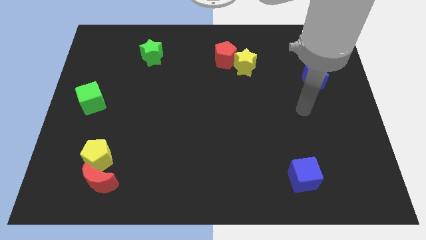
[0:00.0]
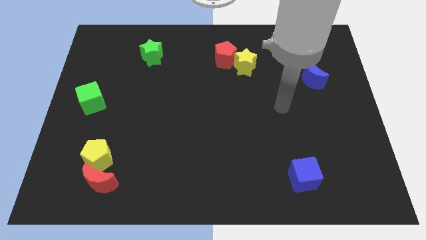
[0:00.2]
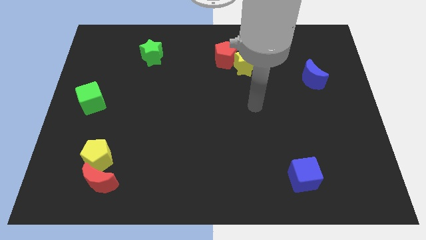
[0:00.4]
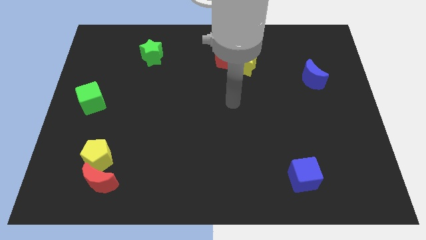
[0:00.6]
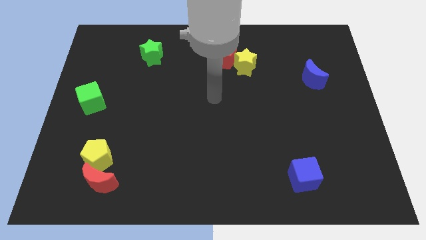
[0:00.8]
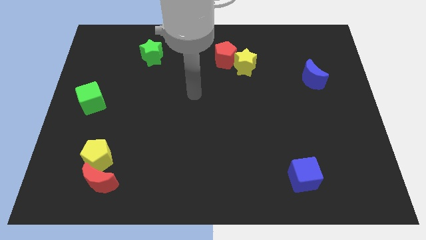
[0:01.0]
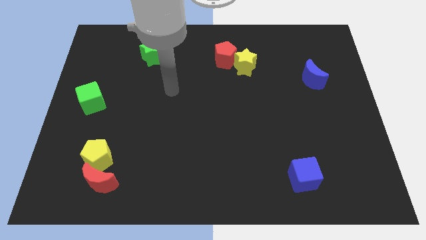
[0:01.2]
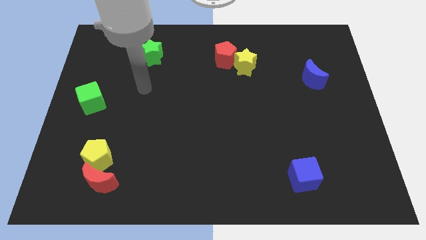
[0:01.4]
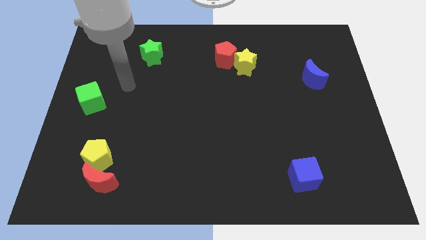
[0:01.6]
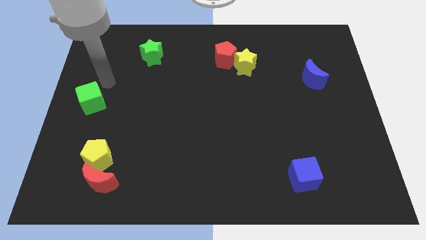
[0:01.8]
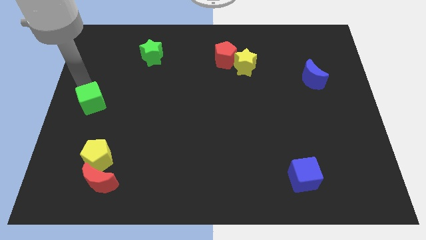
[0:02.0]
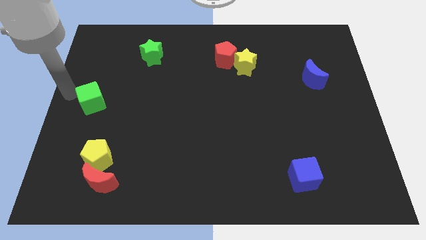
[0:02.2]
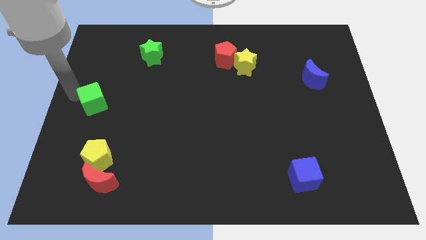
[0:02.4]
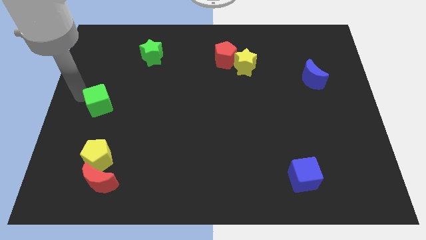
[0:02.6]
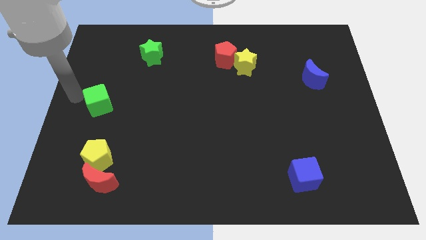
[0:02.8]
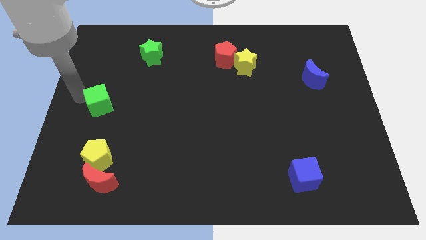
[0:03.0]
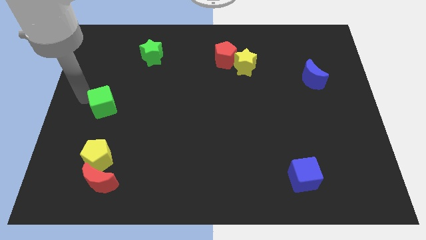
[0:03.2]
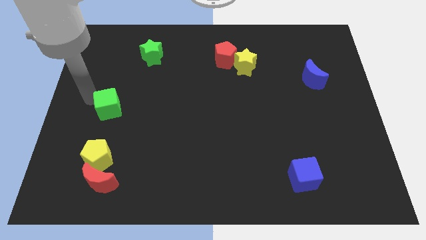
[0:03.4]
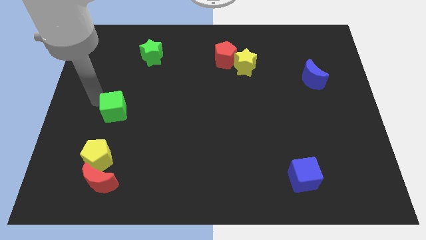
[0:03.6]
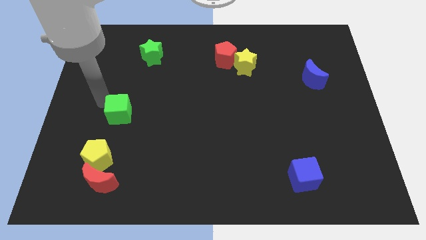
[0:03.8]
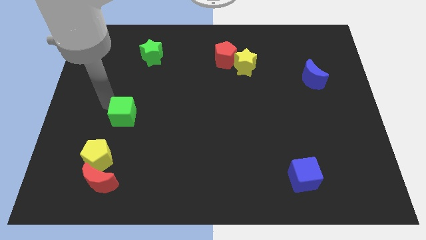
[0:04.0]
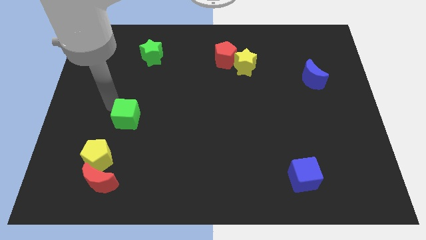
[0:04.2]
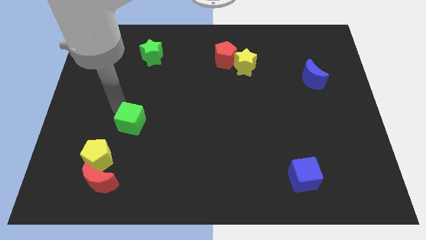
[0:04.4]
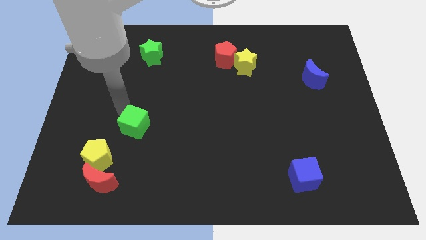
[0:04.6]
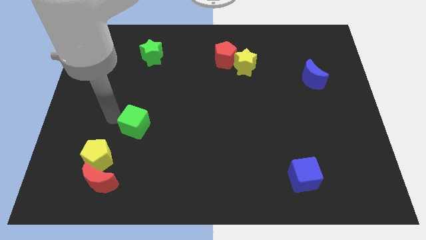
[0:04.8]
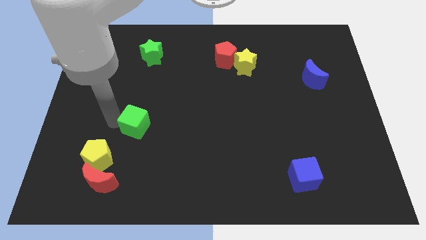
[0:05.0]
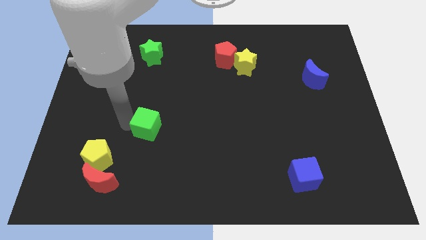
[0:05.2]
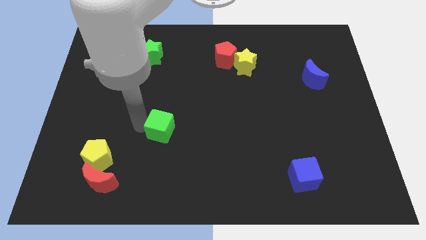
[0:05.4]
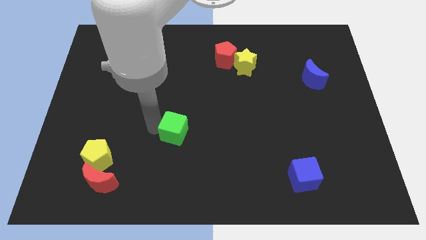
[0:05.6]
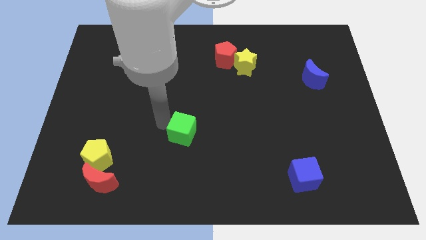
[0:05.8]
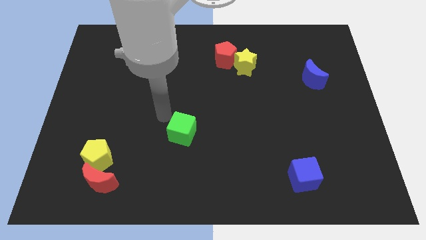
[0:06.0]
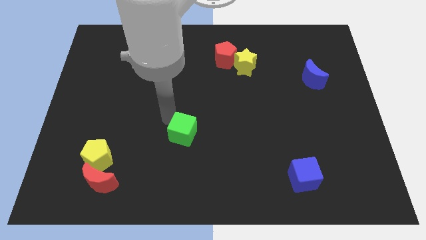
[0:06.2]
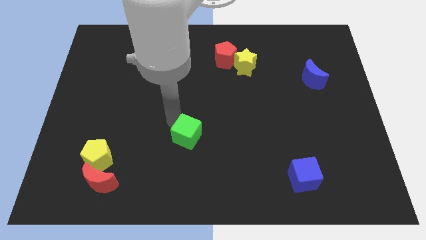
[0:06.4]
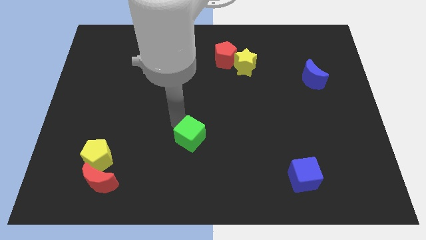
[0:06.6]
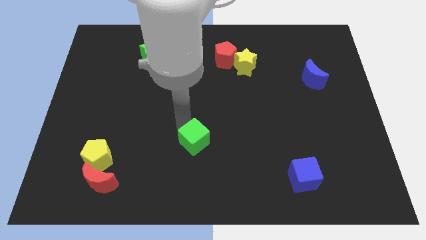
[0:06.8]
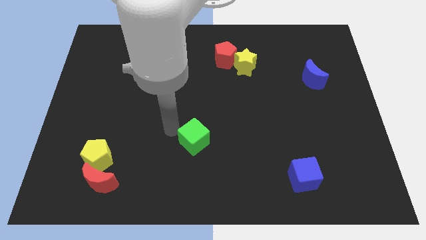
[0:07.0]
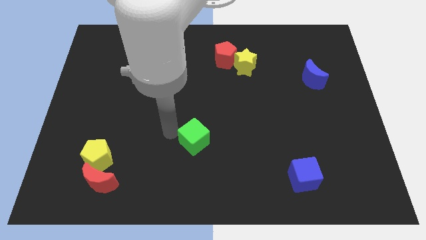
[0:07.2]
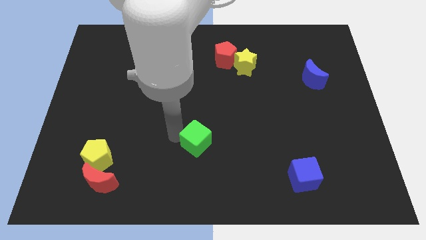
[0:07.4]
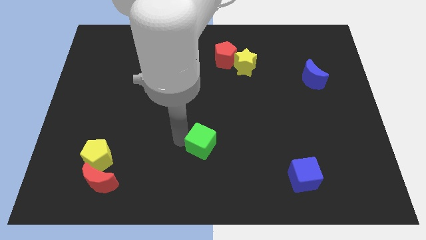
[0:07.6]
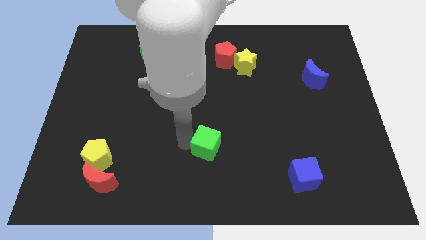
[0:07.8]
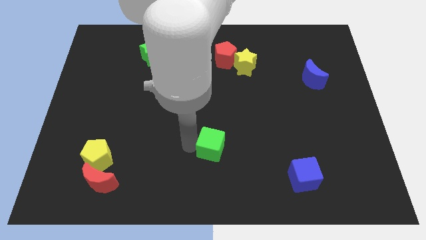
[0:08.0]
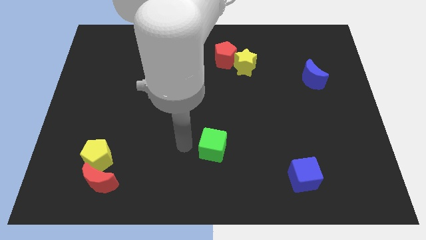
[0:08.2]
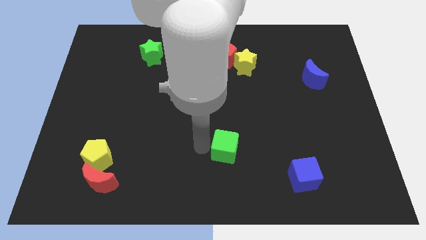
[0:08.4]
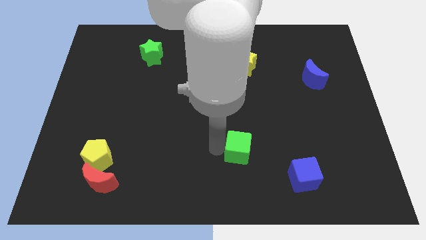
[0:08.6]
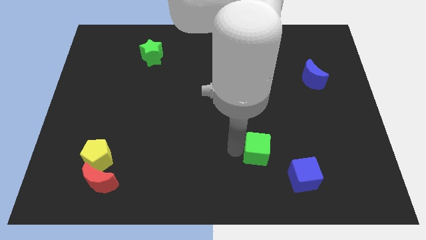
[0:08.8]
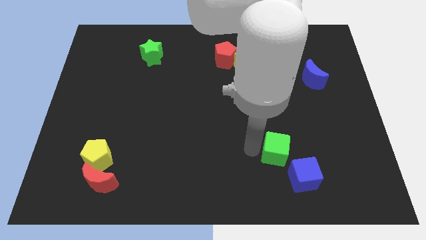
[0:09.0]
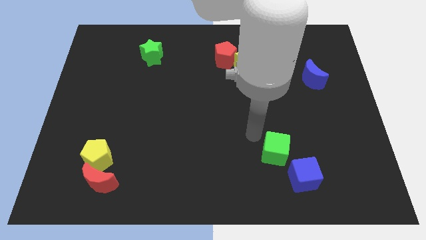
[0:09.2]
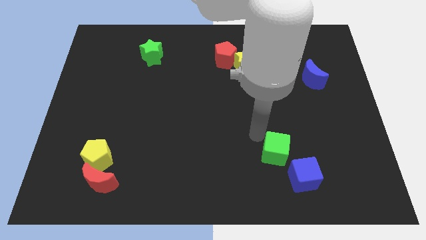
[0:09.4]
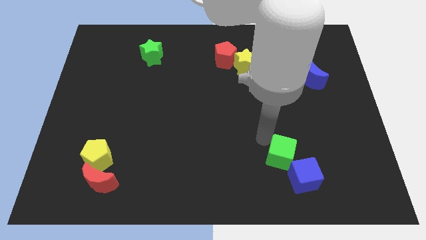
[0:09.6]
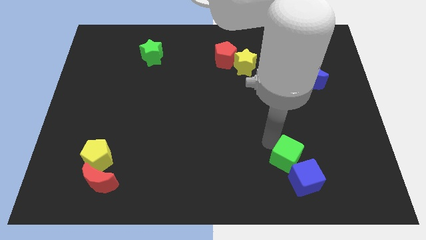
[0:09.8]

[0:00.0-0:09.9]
push the green cube close to the blue cube

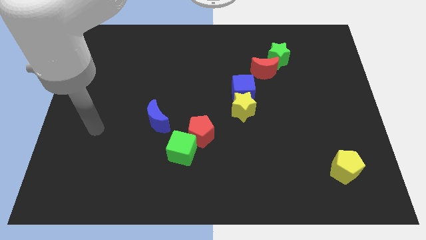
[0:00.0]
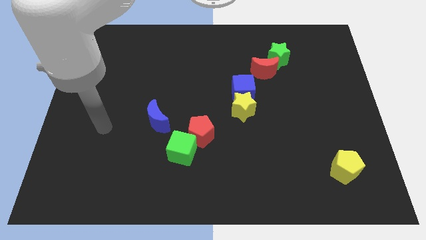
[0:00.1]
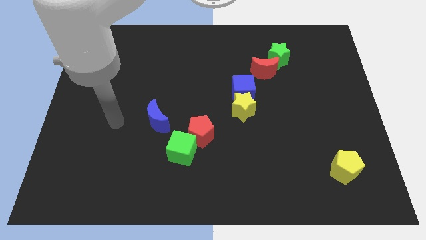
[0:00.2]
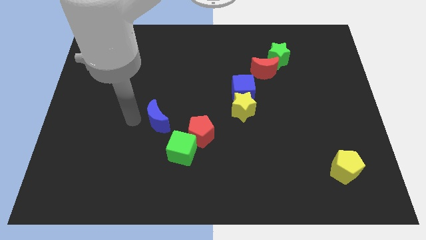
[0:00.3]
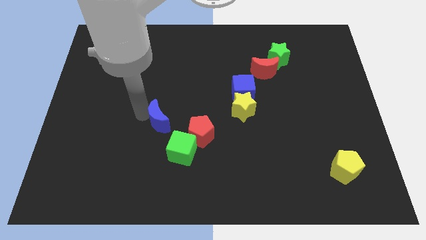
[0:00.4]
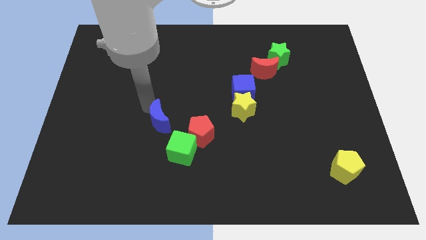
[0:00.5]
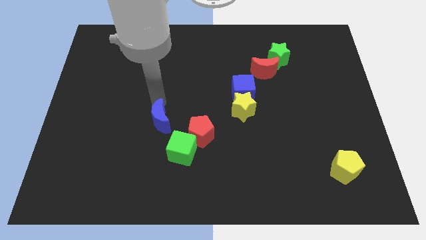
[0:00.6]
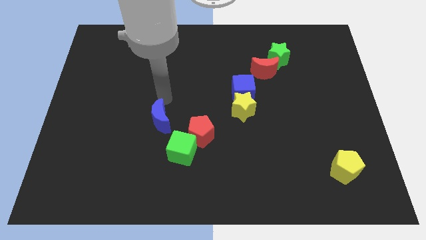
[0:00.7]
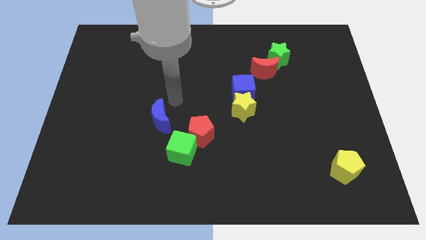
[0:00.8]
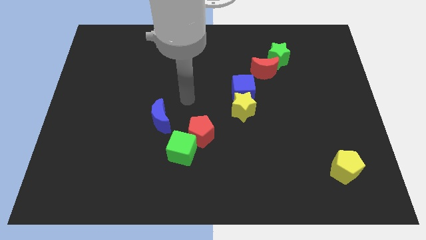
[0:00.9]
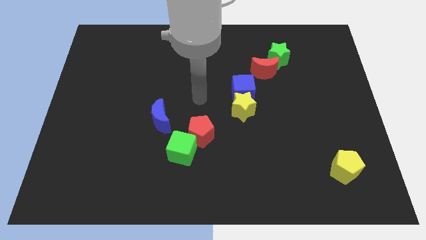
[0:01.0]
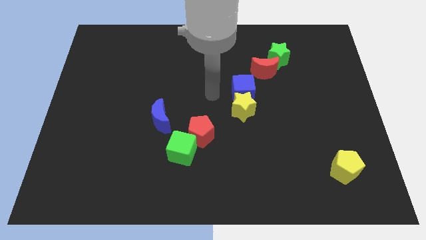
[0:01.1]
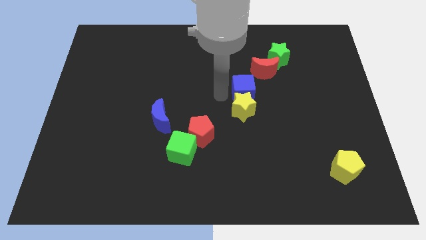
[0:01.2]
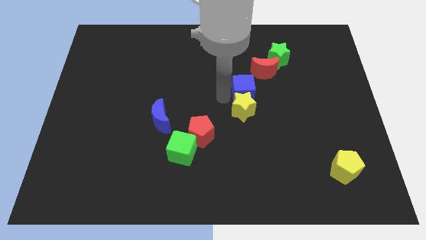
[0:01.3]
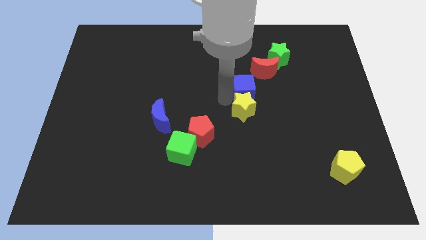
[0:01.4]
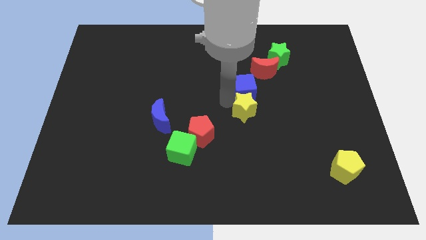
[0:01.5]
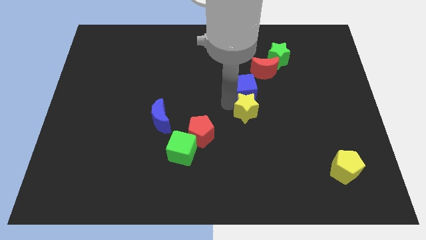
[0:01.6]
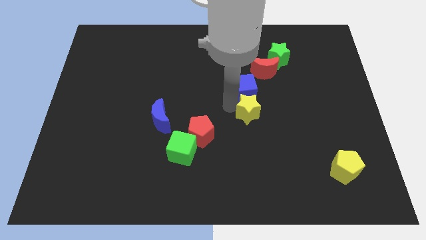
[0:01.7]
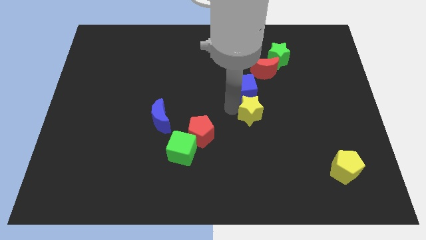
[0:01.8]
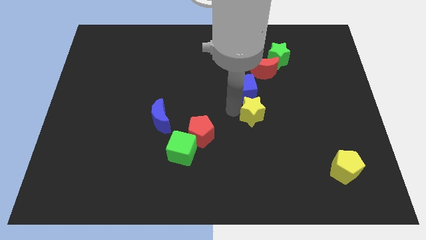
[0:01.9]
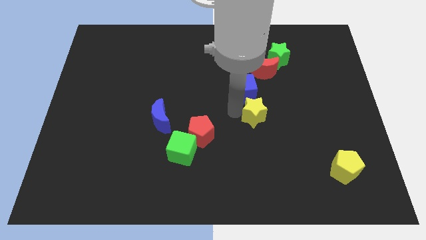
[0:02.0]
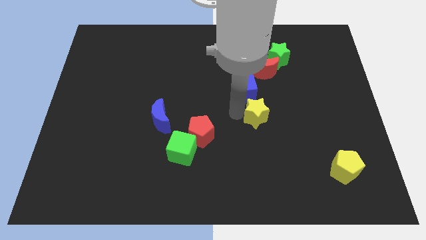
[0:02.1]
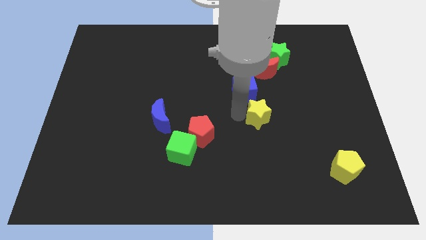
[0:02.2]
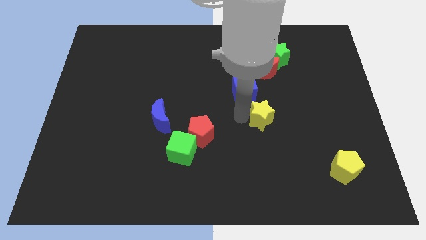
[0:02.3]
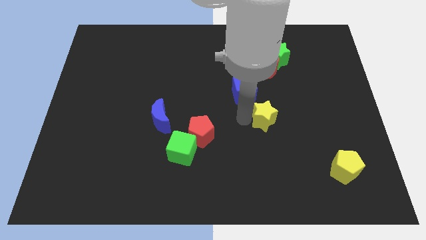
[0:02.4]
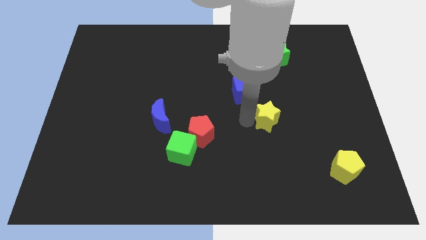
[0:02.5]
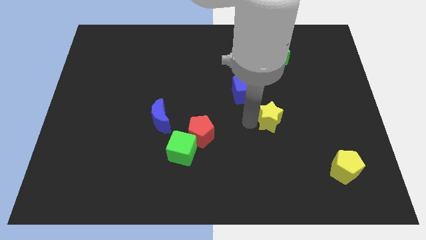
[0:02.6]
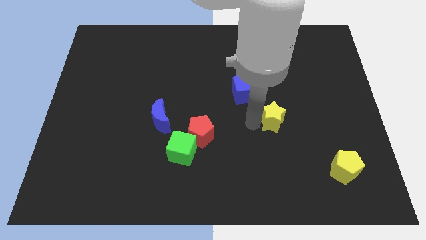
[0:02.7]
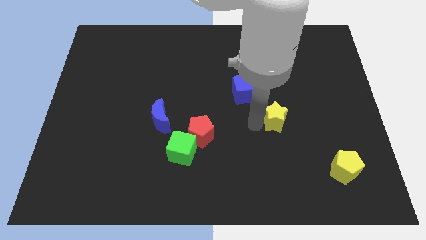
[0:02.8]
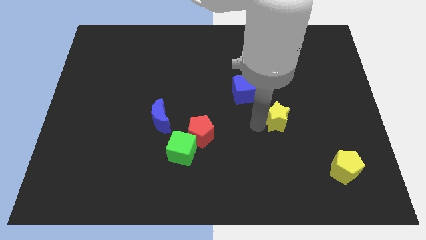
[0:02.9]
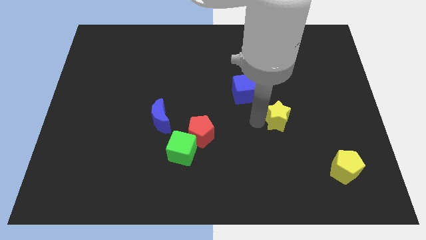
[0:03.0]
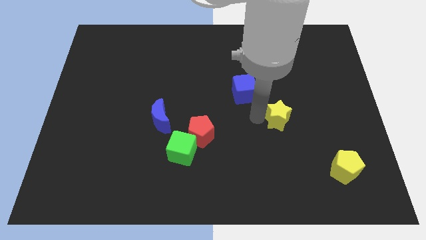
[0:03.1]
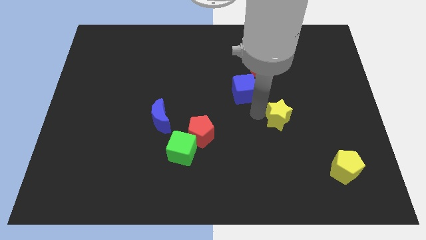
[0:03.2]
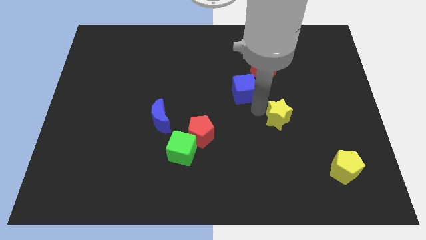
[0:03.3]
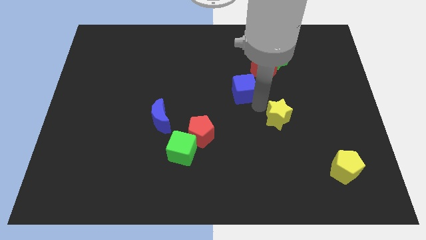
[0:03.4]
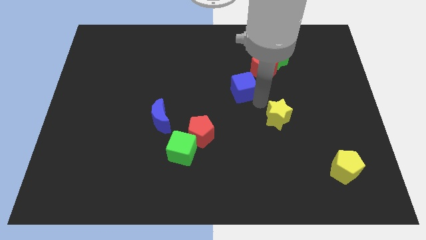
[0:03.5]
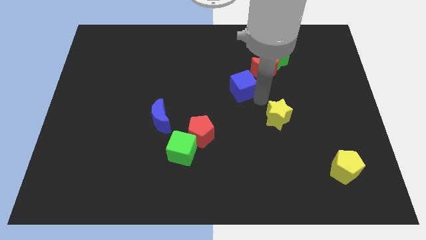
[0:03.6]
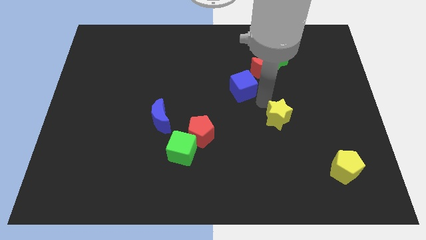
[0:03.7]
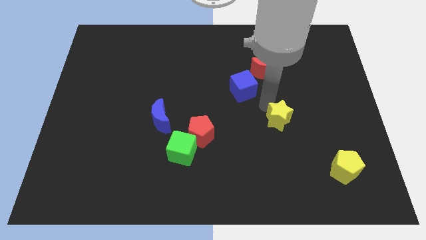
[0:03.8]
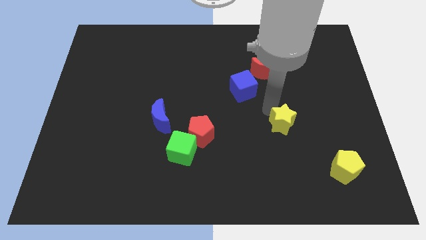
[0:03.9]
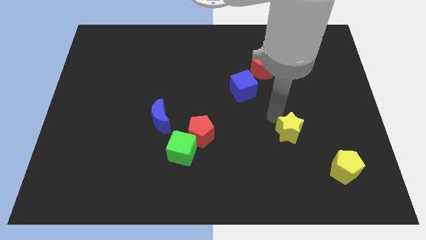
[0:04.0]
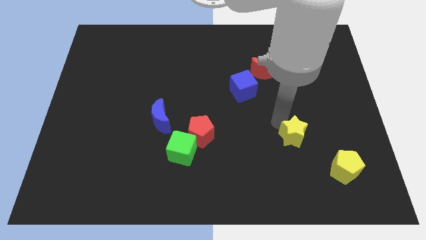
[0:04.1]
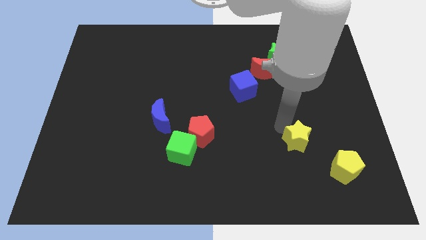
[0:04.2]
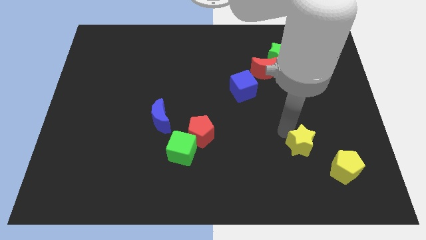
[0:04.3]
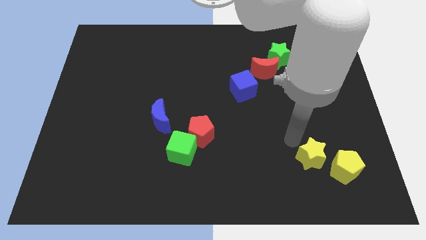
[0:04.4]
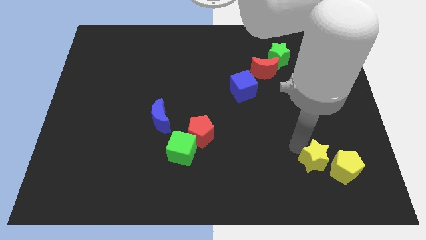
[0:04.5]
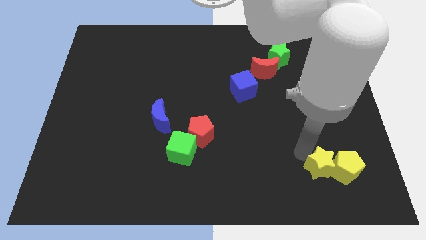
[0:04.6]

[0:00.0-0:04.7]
put the yellow star to the yellow pentagon
